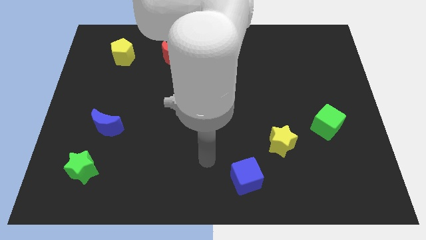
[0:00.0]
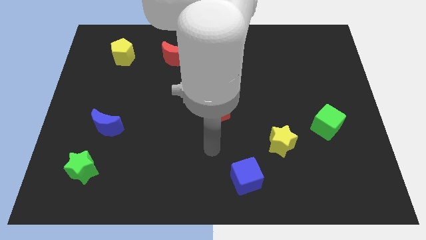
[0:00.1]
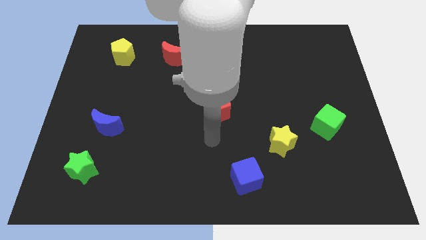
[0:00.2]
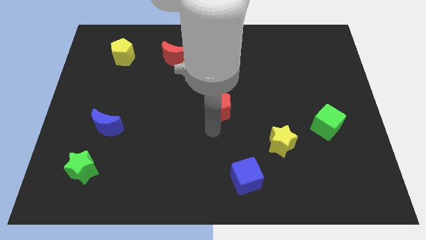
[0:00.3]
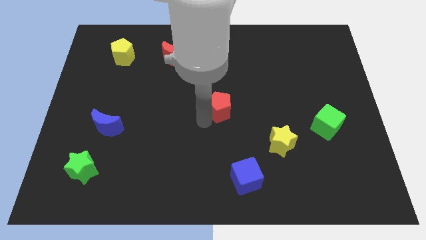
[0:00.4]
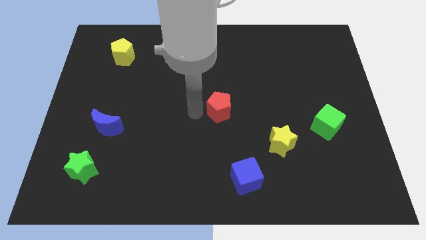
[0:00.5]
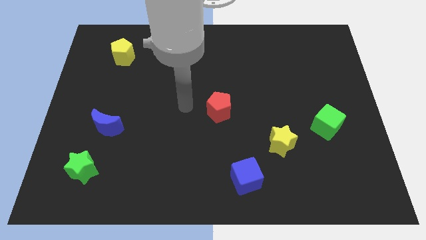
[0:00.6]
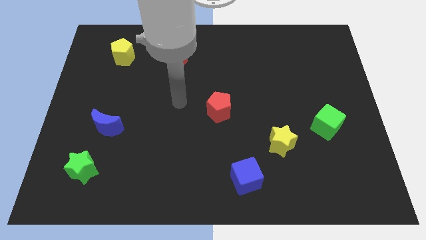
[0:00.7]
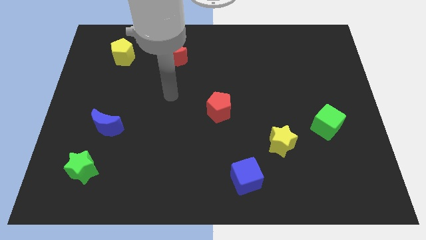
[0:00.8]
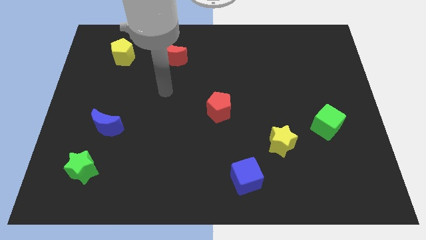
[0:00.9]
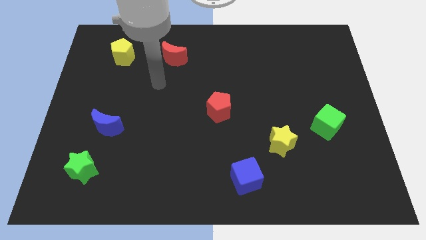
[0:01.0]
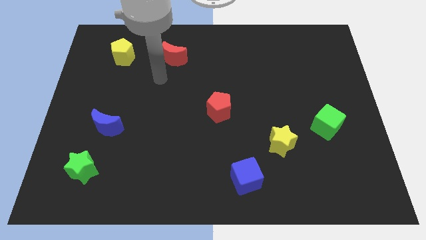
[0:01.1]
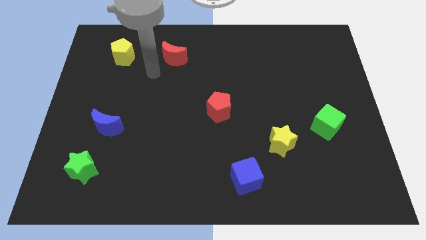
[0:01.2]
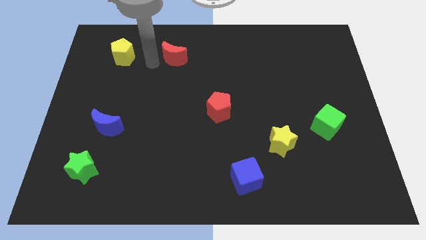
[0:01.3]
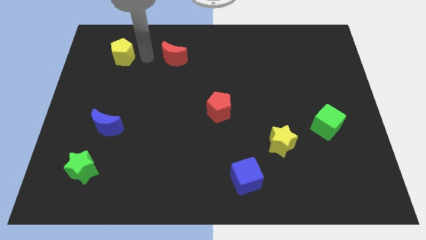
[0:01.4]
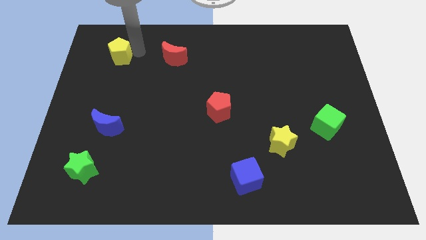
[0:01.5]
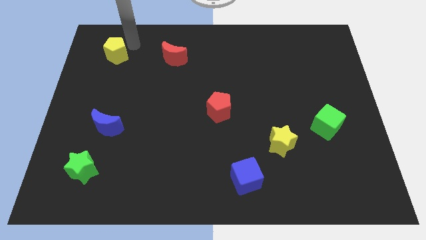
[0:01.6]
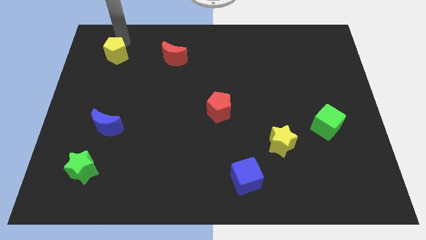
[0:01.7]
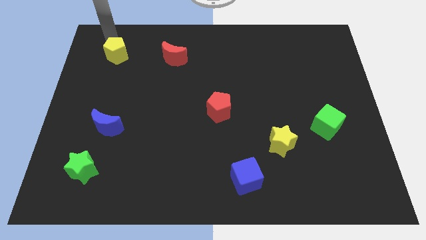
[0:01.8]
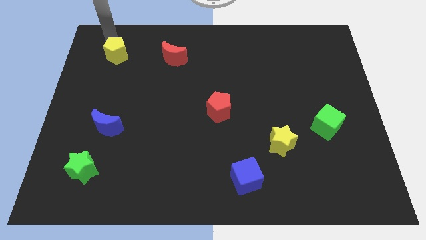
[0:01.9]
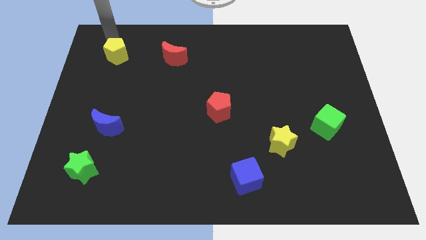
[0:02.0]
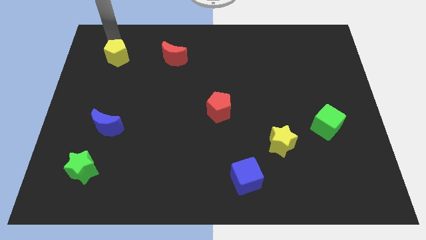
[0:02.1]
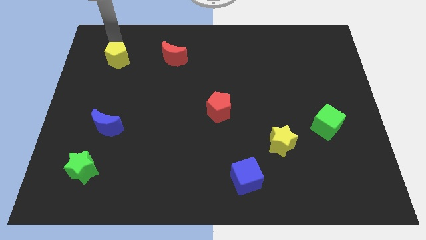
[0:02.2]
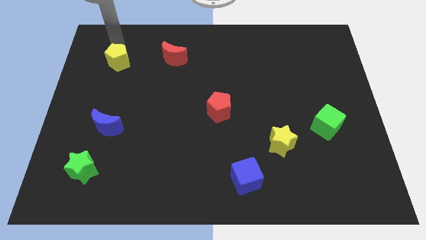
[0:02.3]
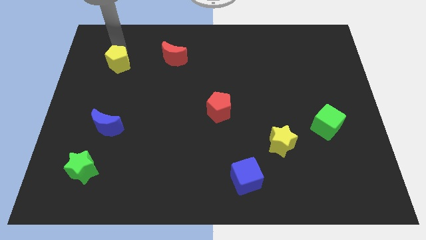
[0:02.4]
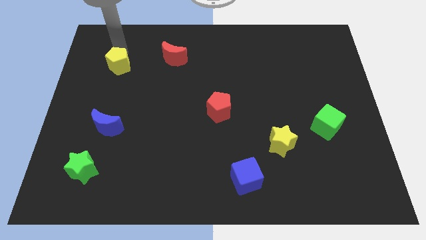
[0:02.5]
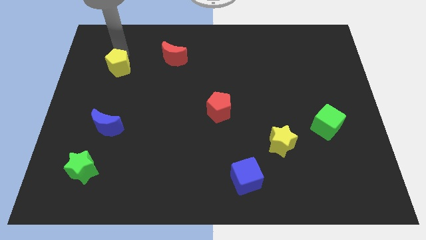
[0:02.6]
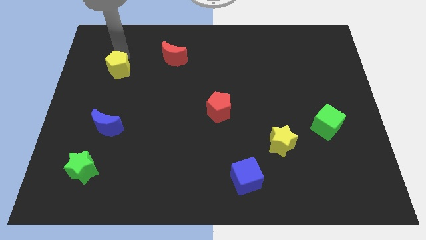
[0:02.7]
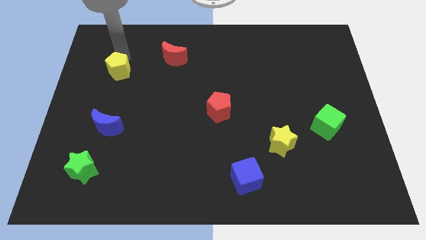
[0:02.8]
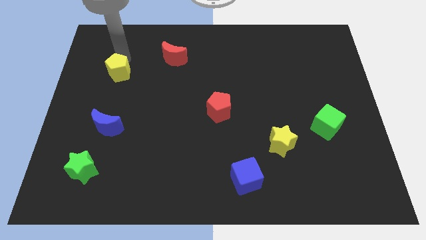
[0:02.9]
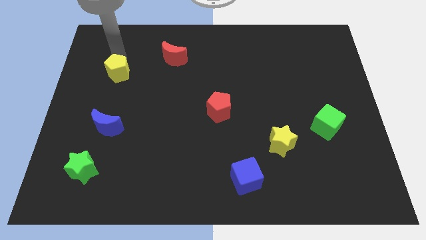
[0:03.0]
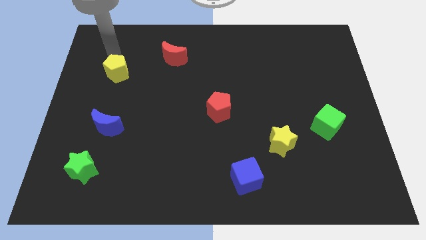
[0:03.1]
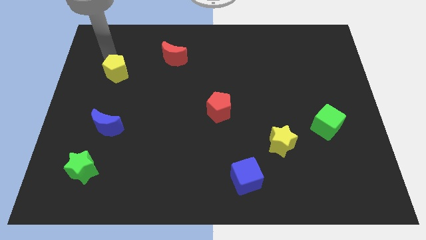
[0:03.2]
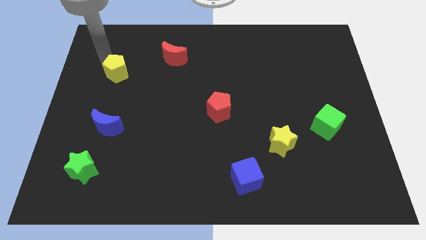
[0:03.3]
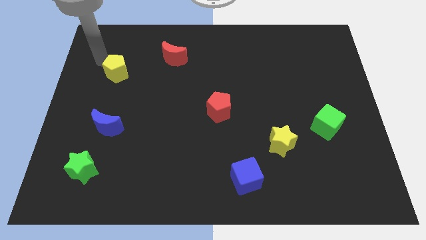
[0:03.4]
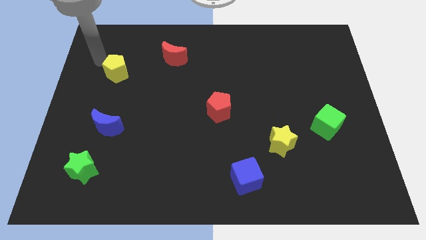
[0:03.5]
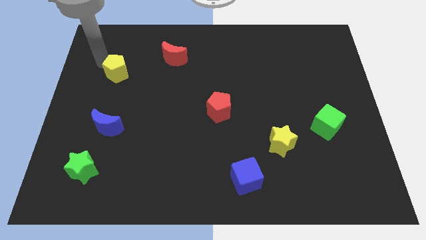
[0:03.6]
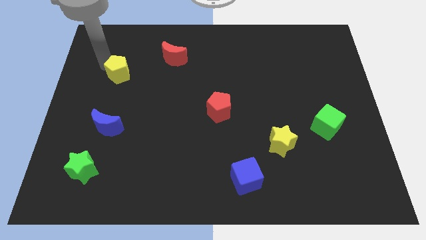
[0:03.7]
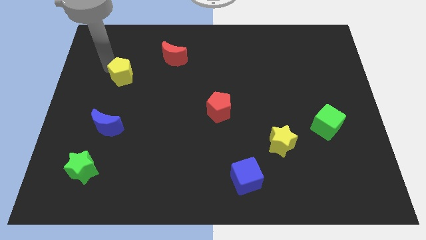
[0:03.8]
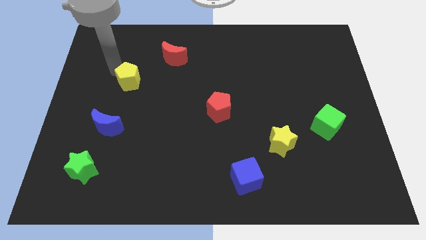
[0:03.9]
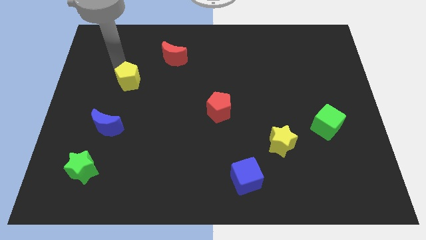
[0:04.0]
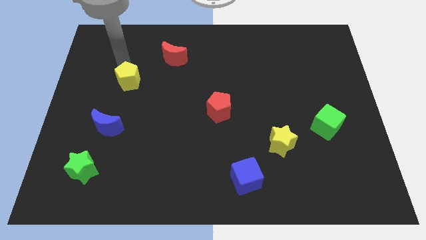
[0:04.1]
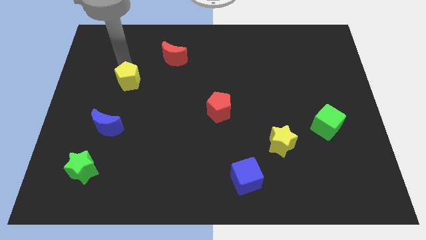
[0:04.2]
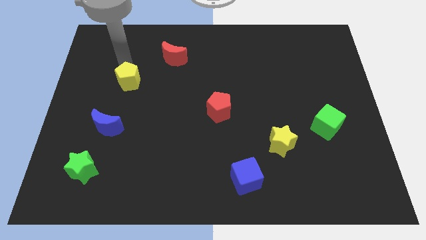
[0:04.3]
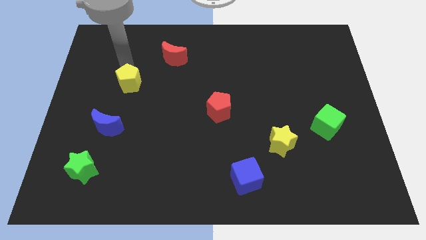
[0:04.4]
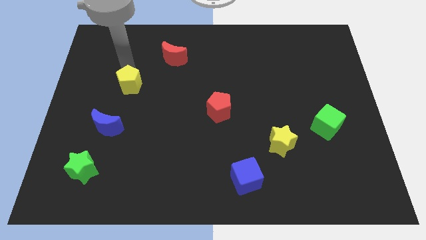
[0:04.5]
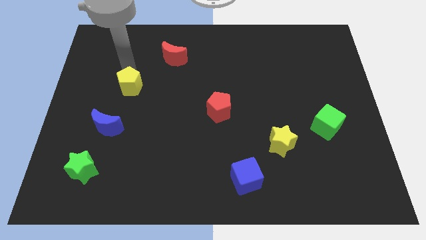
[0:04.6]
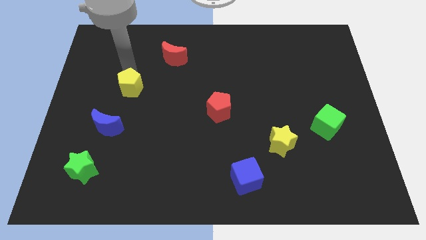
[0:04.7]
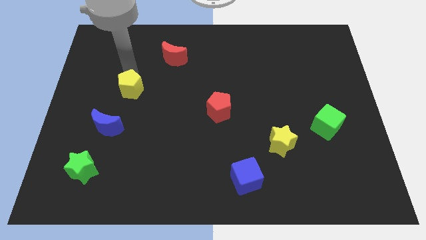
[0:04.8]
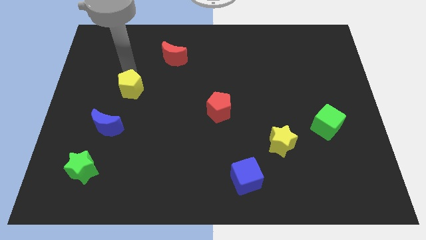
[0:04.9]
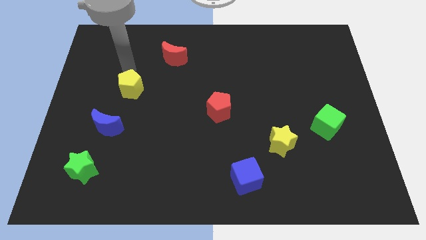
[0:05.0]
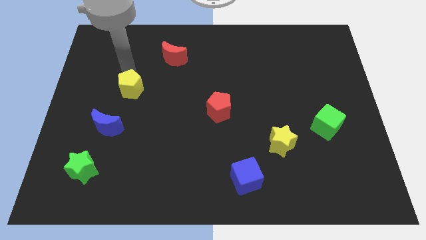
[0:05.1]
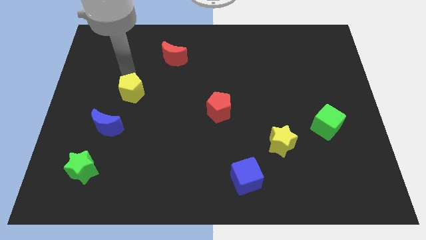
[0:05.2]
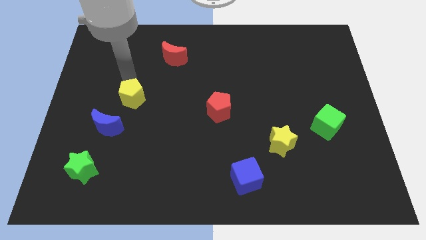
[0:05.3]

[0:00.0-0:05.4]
put the yellow pentagon diagonally up and to the right of the blue moon

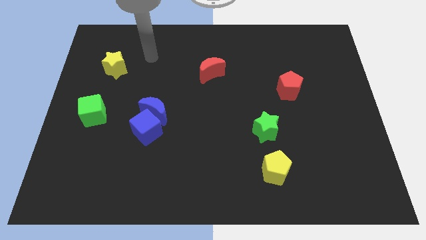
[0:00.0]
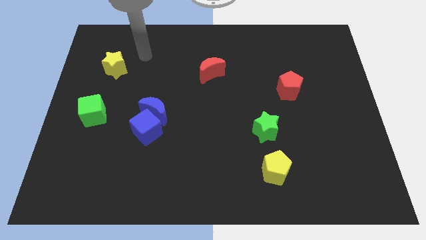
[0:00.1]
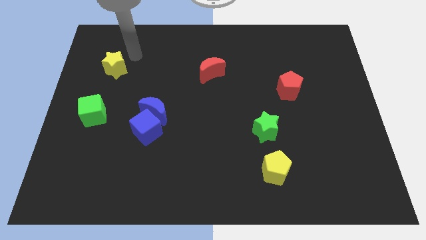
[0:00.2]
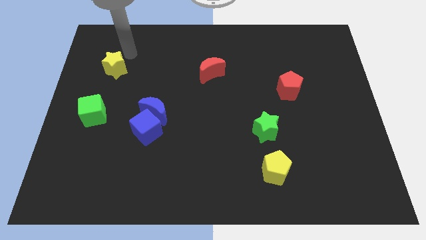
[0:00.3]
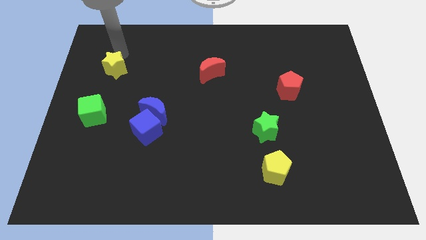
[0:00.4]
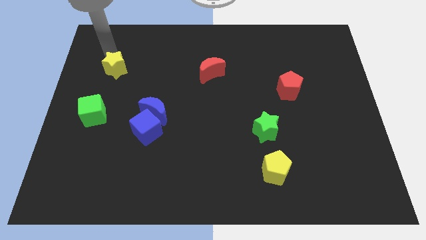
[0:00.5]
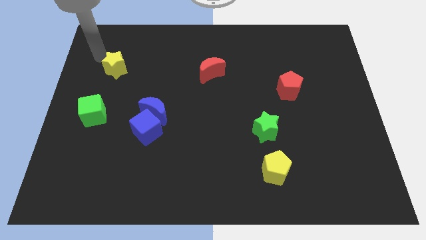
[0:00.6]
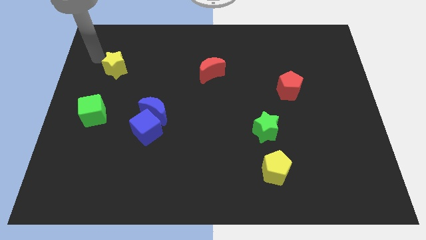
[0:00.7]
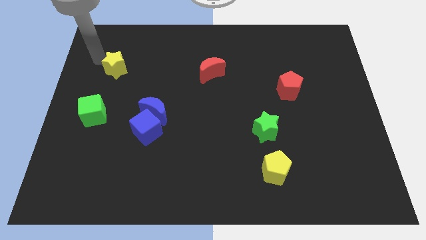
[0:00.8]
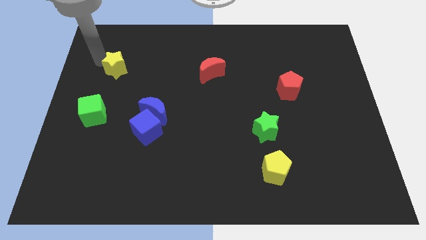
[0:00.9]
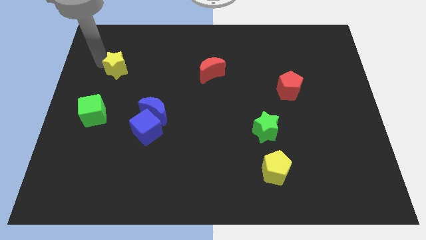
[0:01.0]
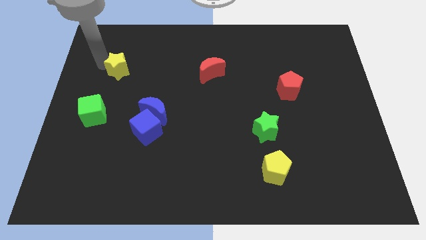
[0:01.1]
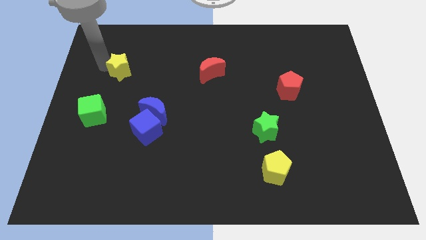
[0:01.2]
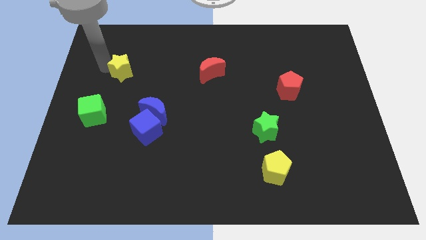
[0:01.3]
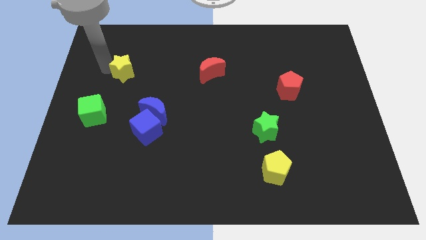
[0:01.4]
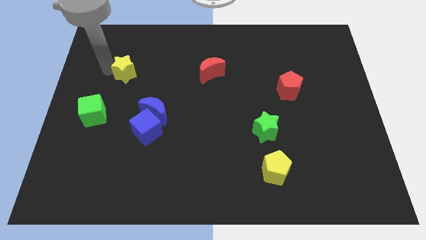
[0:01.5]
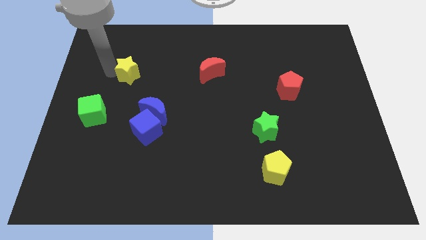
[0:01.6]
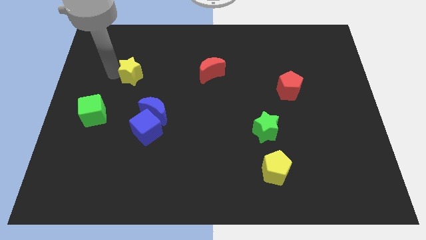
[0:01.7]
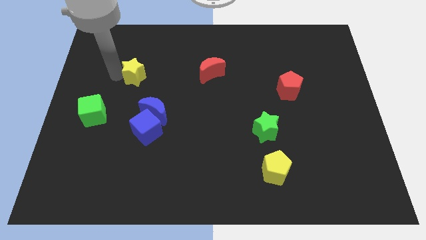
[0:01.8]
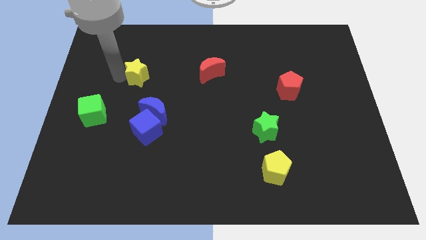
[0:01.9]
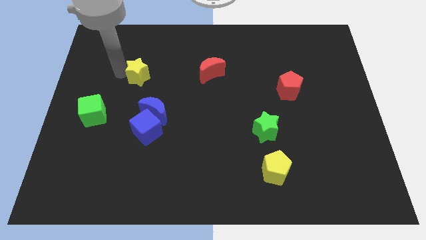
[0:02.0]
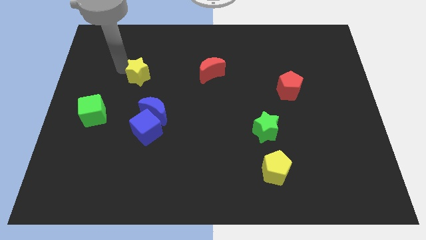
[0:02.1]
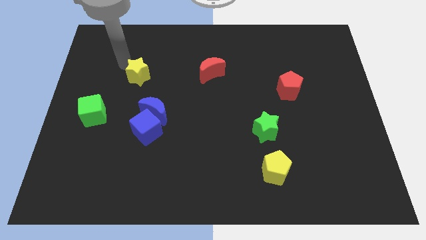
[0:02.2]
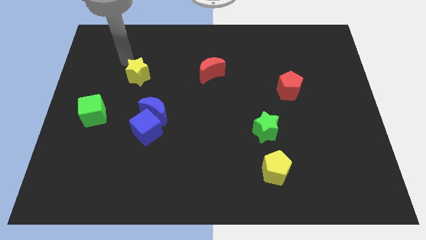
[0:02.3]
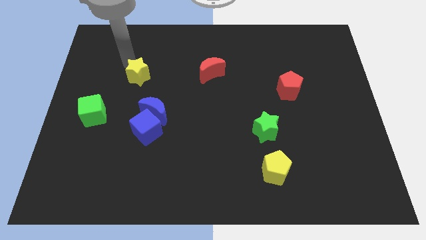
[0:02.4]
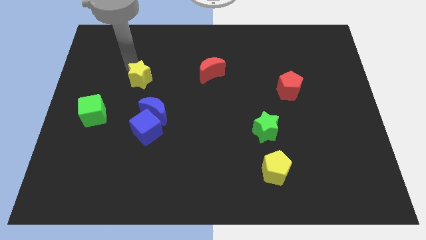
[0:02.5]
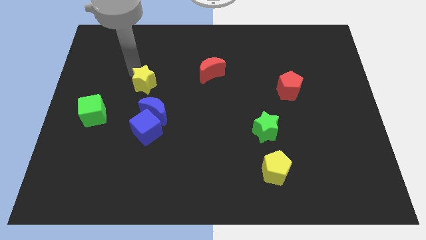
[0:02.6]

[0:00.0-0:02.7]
move the yellow star above the blue cube
